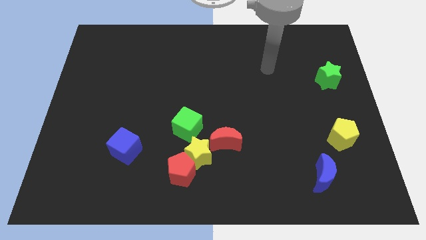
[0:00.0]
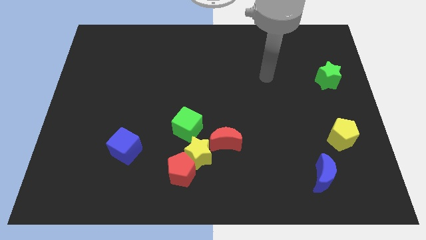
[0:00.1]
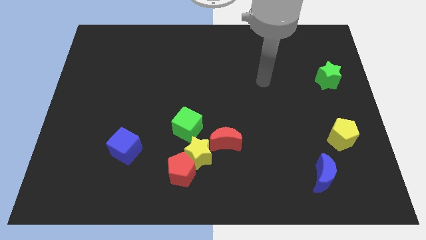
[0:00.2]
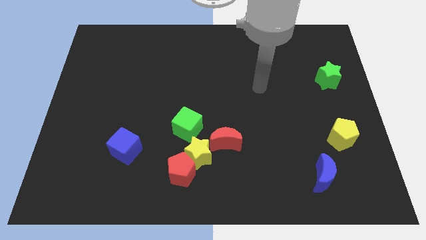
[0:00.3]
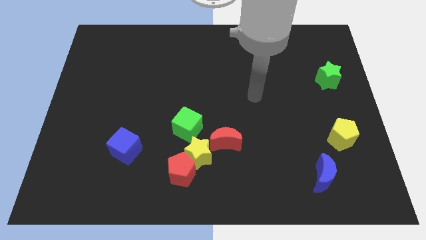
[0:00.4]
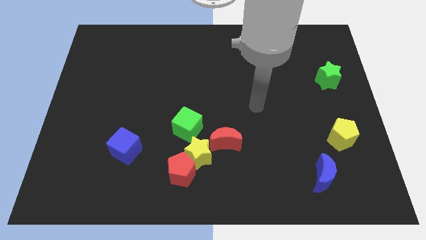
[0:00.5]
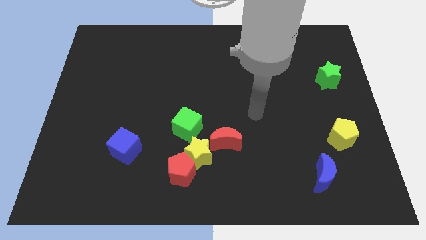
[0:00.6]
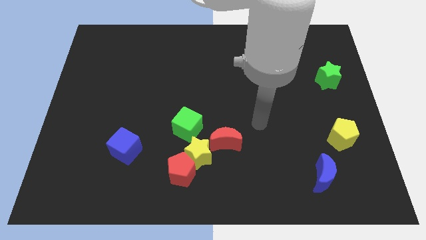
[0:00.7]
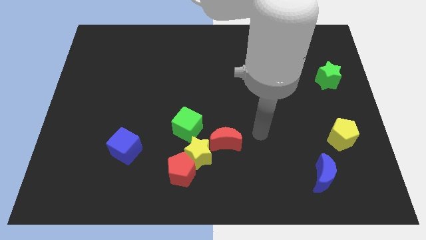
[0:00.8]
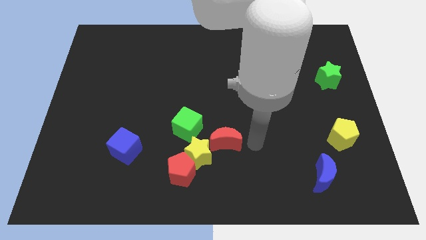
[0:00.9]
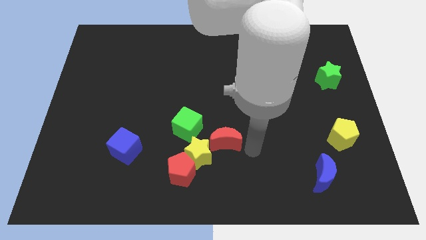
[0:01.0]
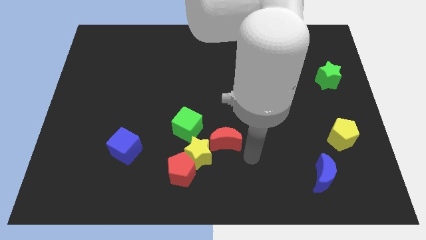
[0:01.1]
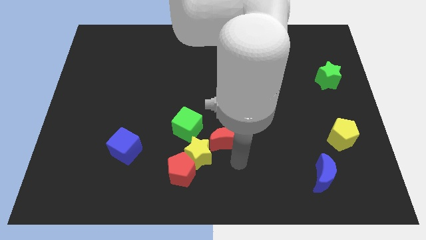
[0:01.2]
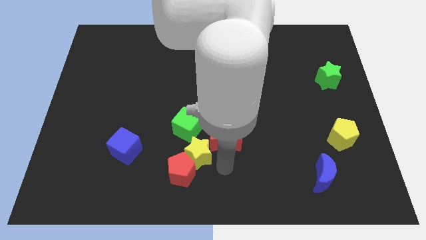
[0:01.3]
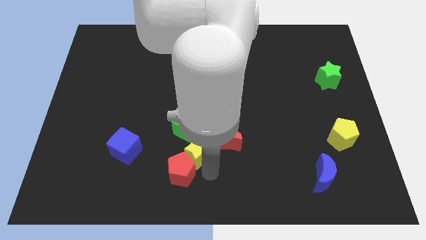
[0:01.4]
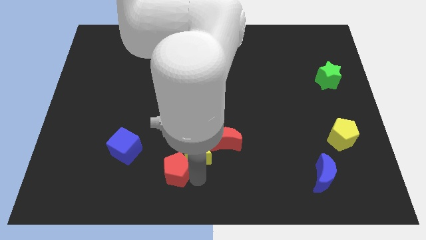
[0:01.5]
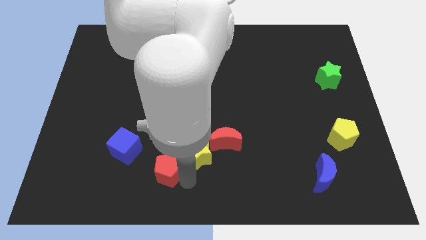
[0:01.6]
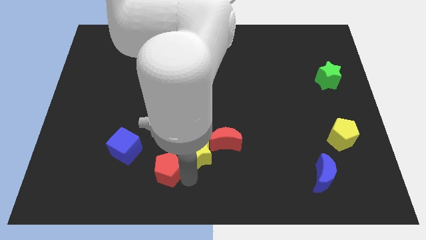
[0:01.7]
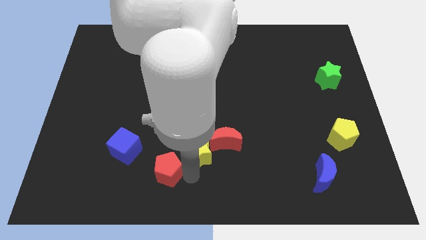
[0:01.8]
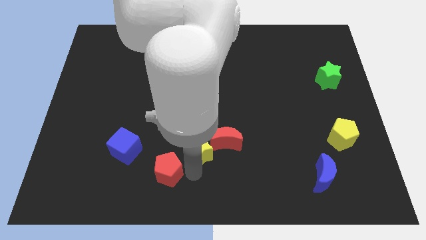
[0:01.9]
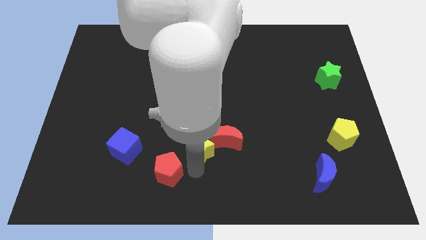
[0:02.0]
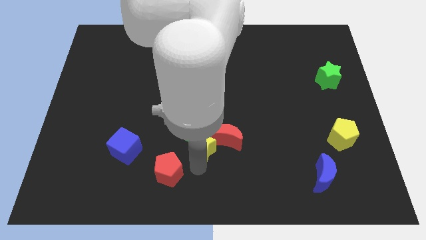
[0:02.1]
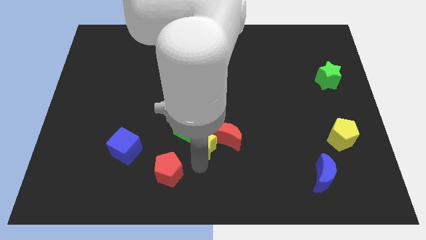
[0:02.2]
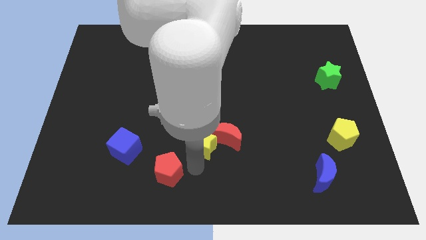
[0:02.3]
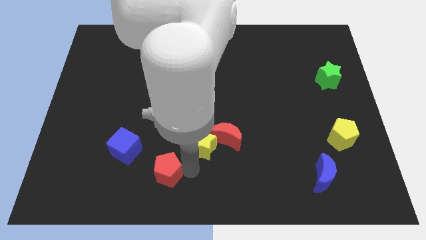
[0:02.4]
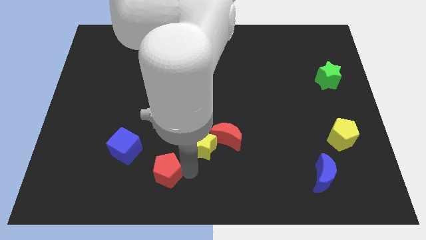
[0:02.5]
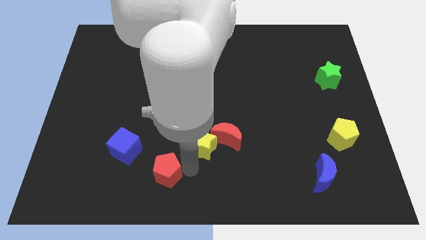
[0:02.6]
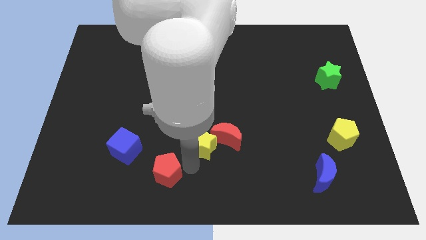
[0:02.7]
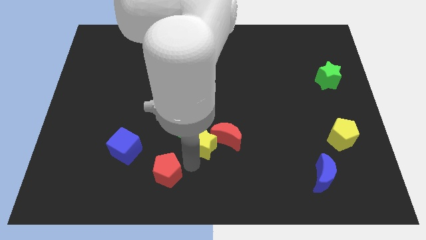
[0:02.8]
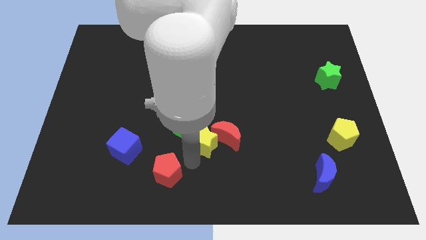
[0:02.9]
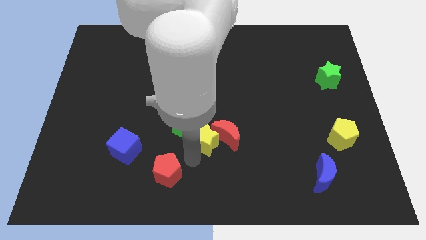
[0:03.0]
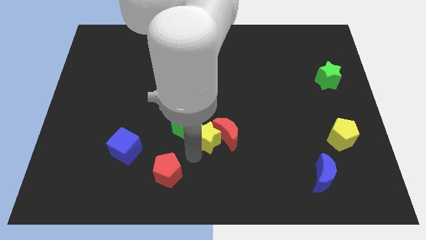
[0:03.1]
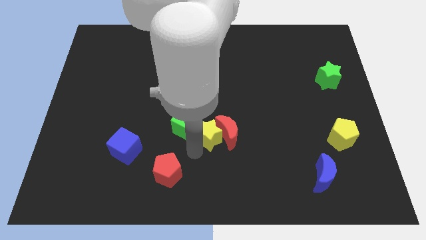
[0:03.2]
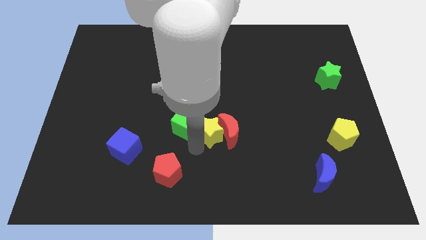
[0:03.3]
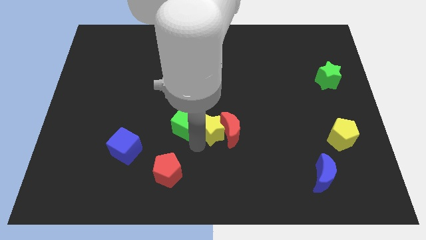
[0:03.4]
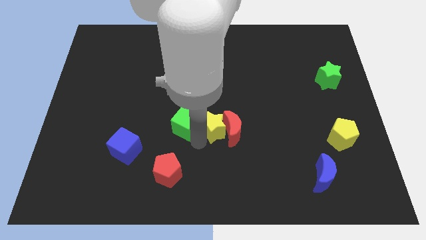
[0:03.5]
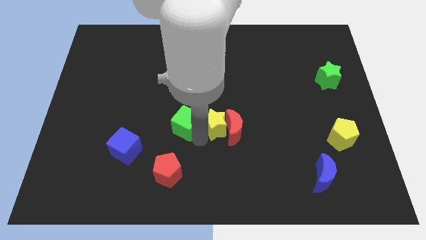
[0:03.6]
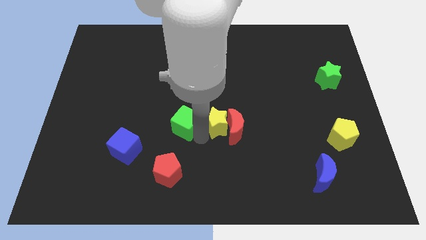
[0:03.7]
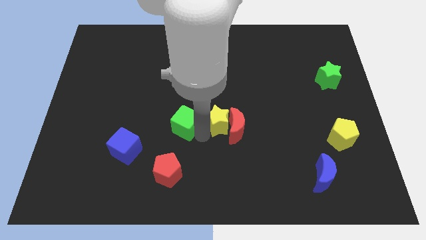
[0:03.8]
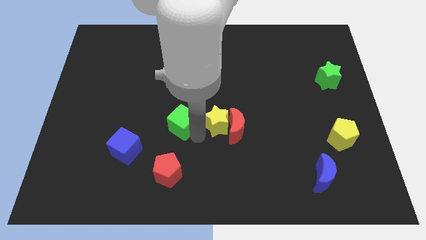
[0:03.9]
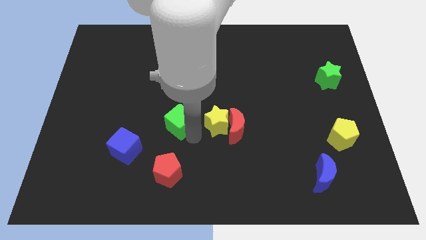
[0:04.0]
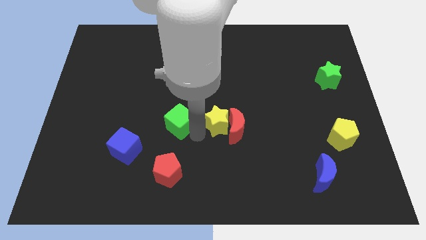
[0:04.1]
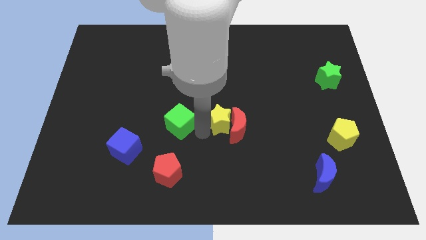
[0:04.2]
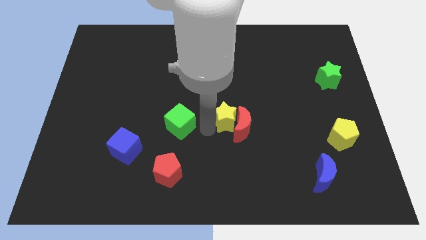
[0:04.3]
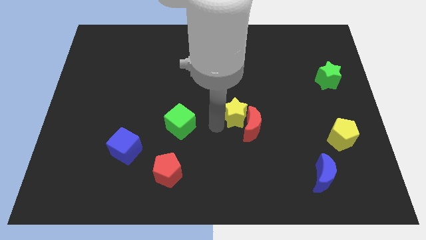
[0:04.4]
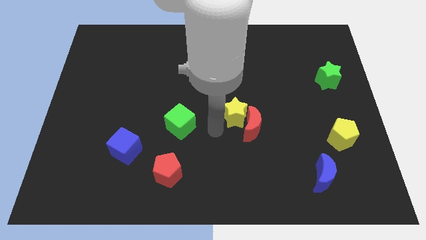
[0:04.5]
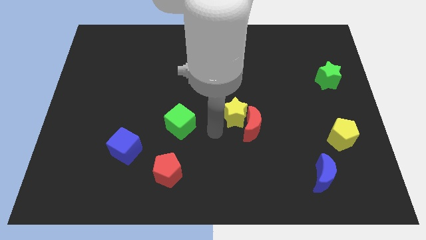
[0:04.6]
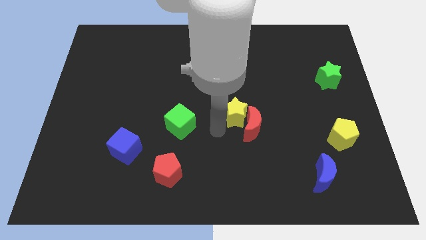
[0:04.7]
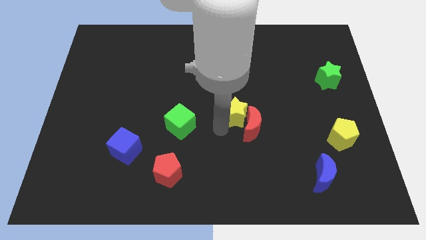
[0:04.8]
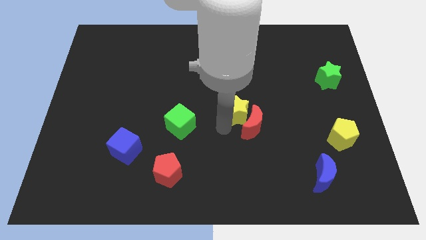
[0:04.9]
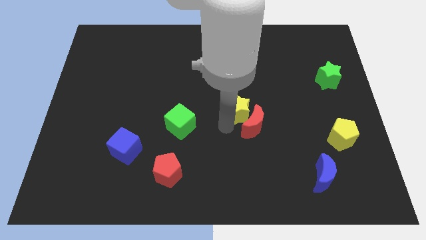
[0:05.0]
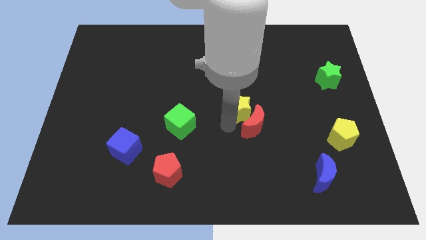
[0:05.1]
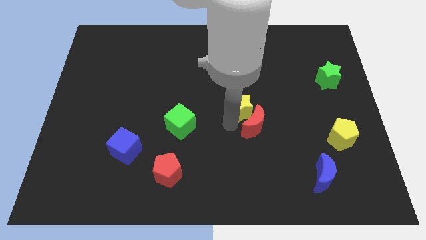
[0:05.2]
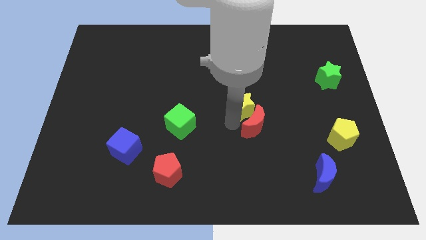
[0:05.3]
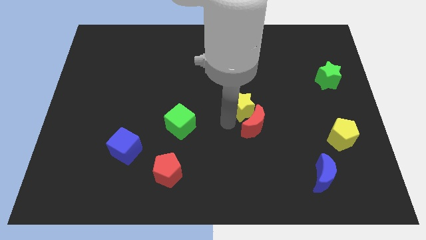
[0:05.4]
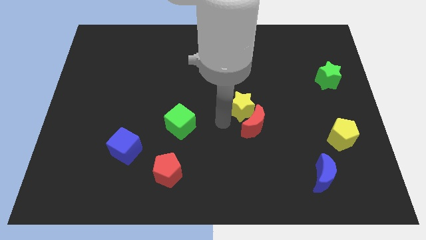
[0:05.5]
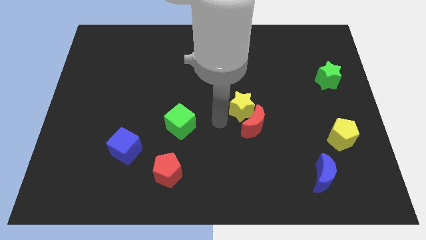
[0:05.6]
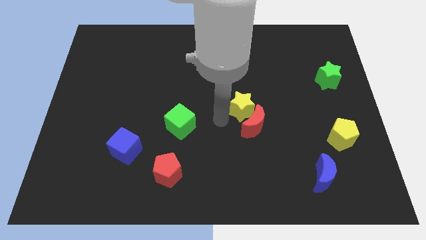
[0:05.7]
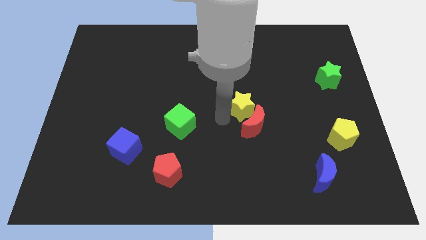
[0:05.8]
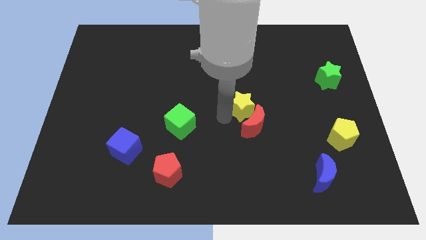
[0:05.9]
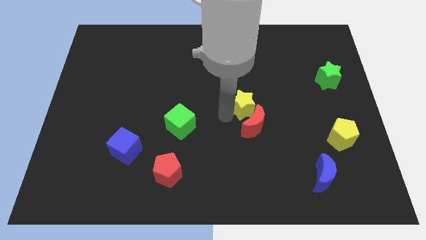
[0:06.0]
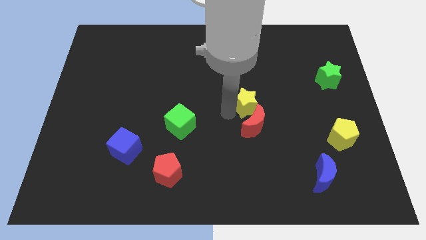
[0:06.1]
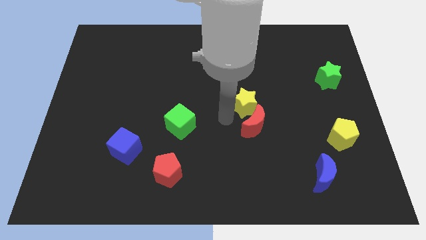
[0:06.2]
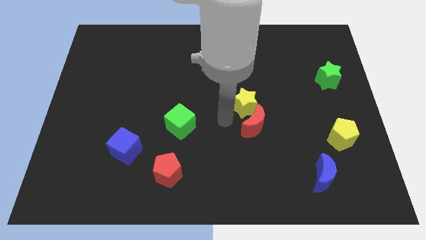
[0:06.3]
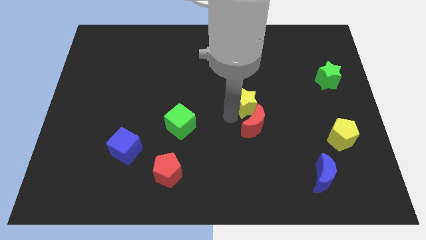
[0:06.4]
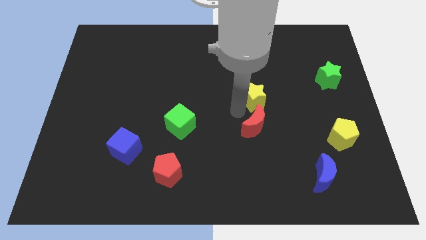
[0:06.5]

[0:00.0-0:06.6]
push the yellow star up and then to the right

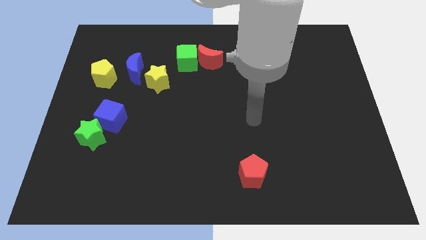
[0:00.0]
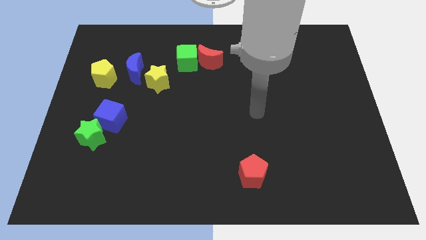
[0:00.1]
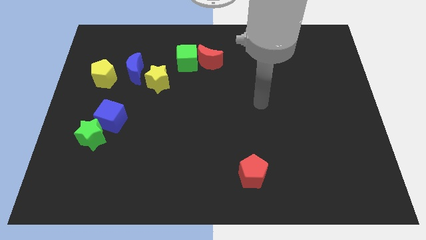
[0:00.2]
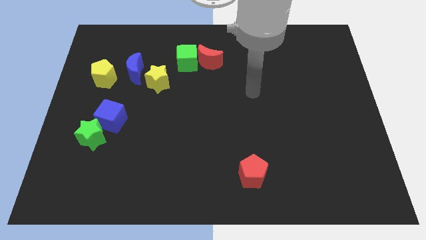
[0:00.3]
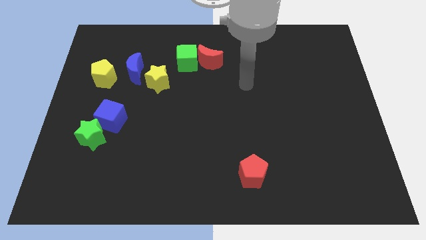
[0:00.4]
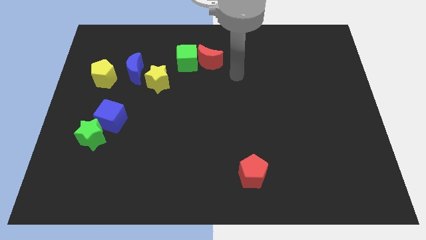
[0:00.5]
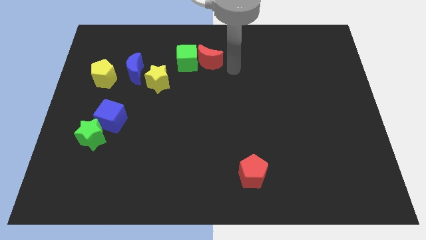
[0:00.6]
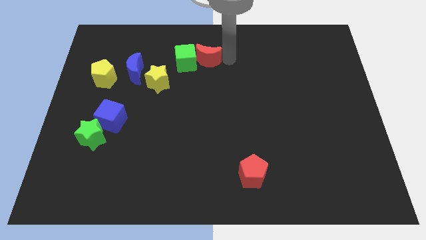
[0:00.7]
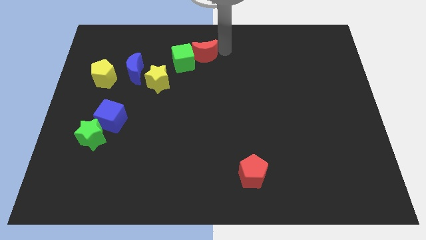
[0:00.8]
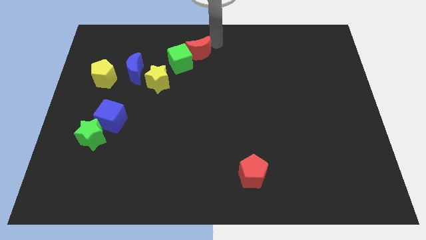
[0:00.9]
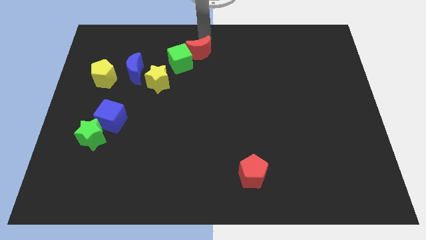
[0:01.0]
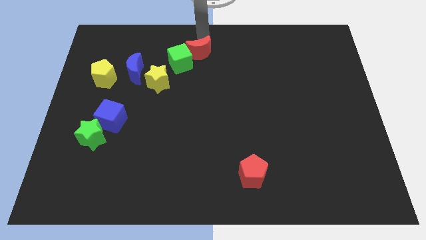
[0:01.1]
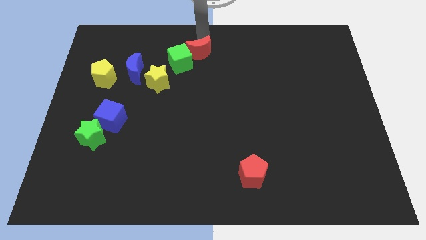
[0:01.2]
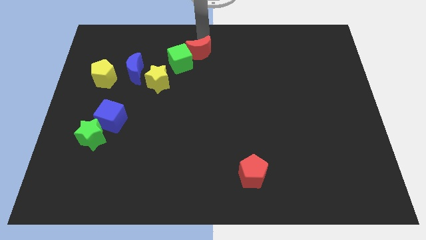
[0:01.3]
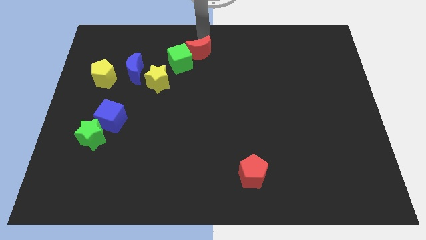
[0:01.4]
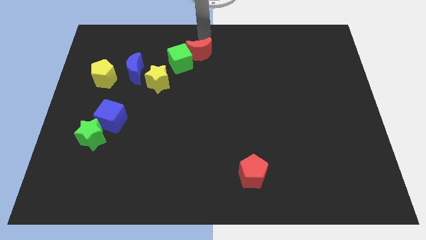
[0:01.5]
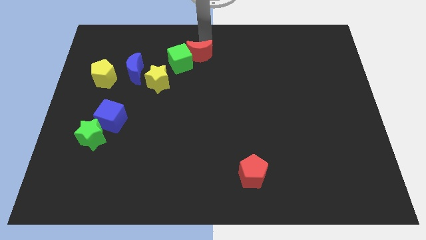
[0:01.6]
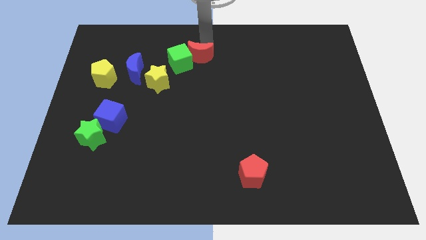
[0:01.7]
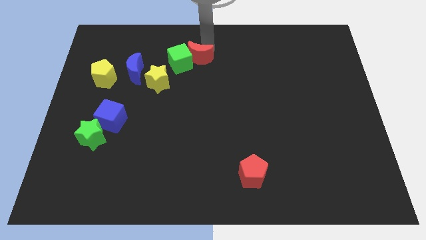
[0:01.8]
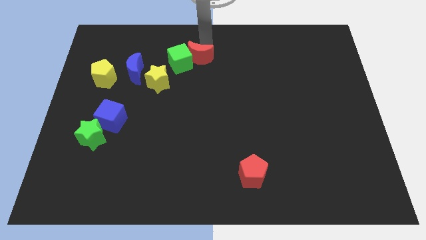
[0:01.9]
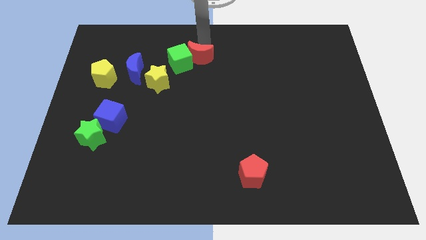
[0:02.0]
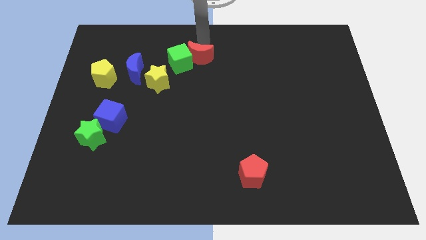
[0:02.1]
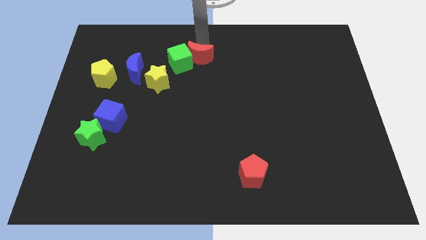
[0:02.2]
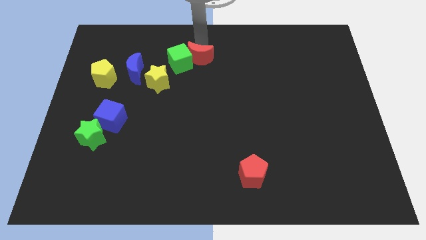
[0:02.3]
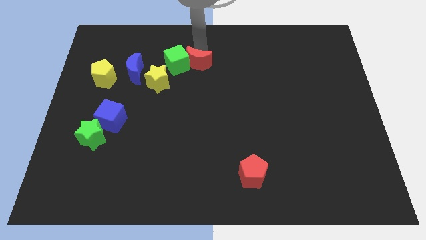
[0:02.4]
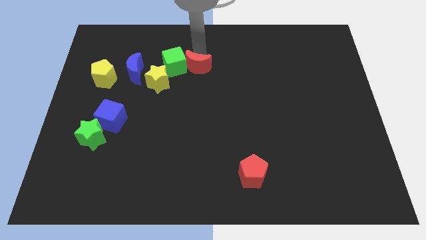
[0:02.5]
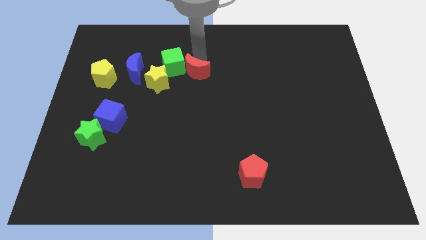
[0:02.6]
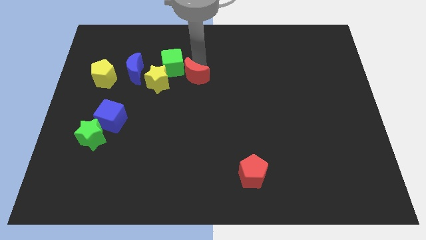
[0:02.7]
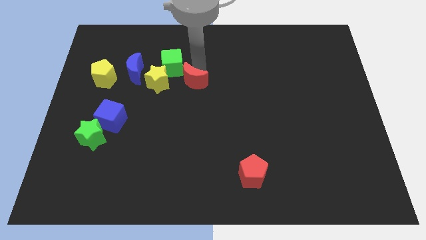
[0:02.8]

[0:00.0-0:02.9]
slightly slide the red moon downwards and then to the left
